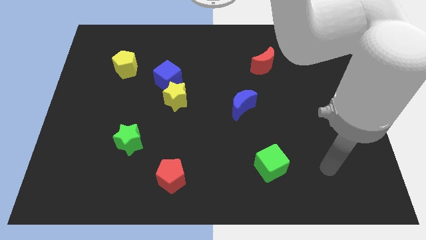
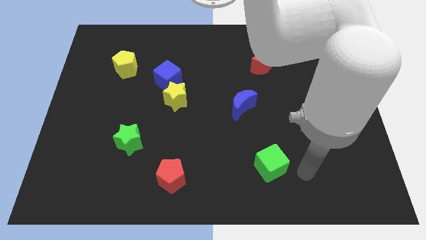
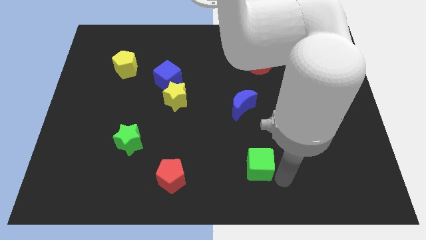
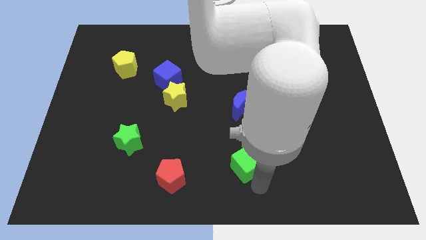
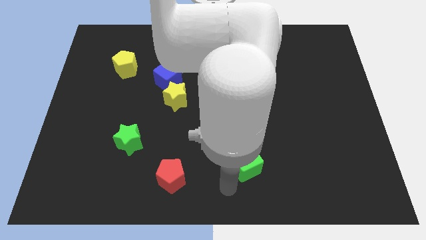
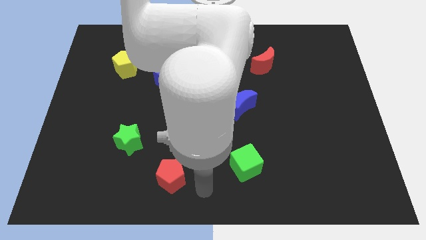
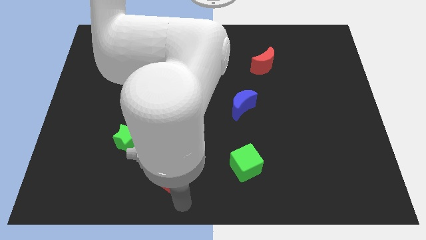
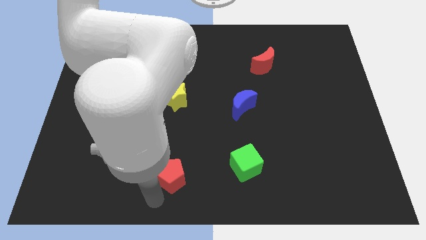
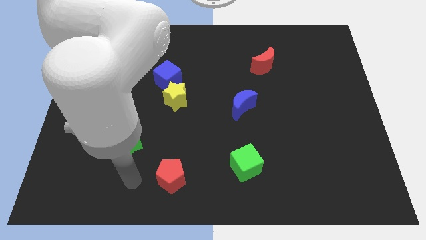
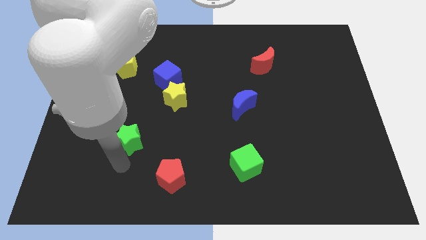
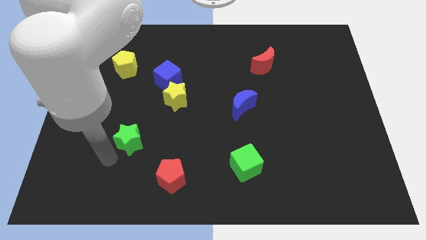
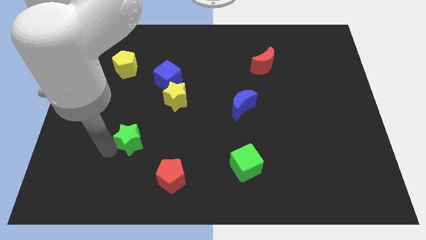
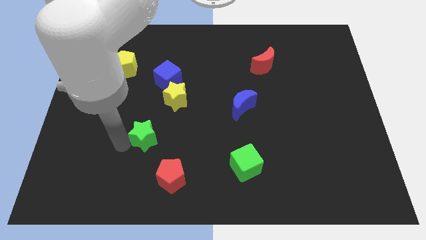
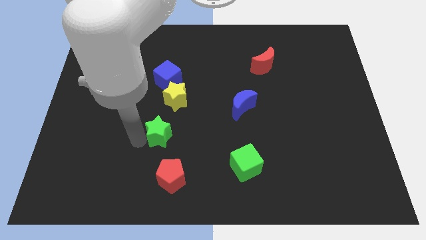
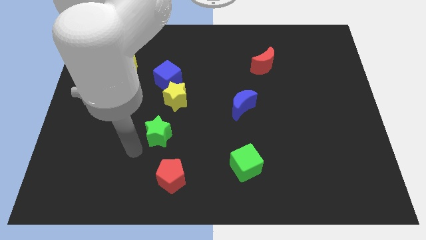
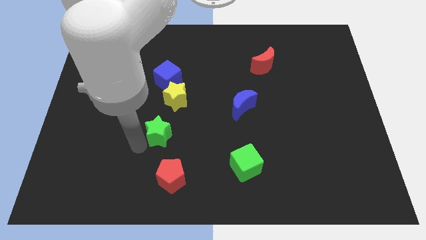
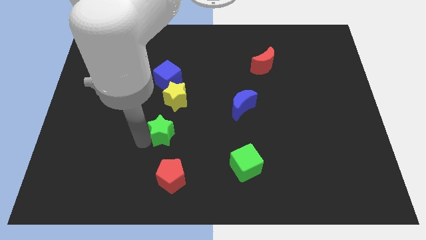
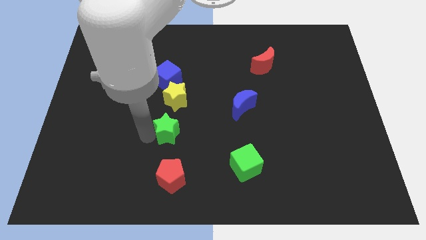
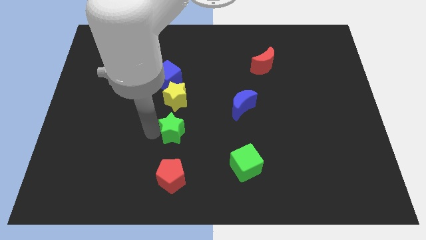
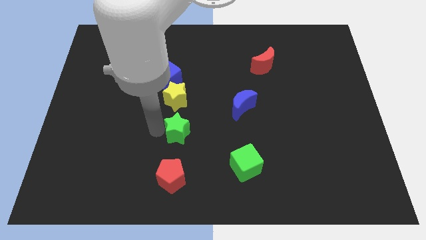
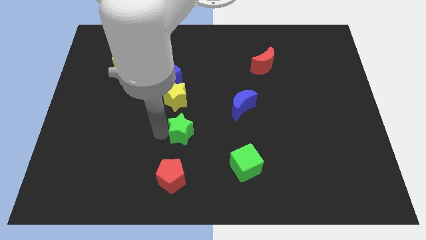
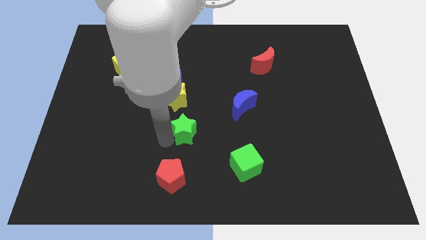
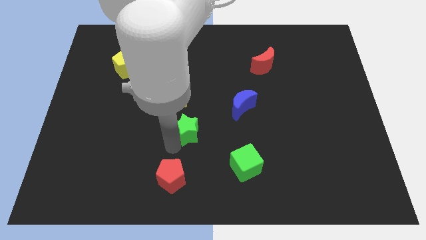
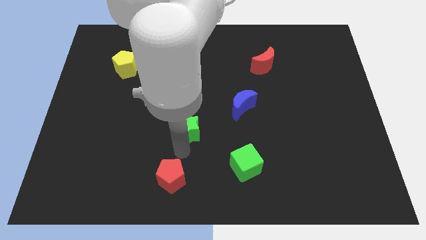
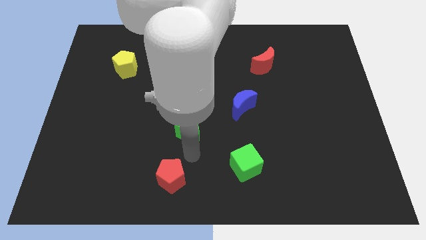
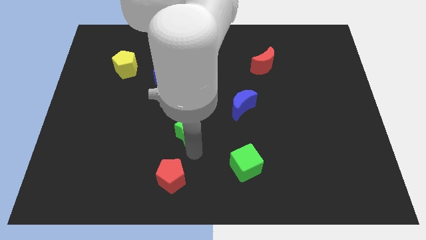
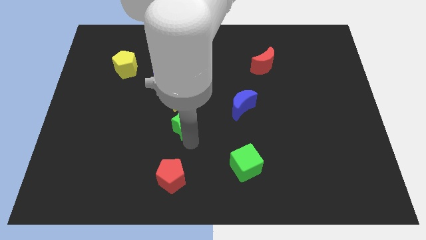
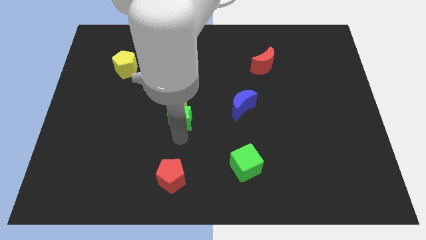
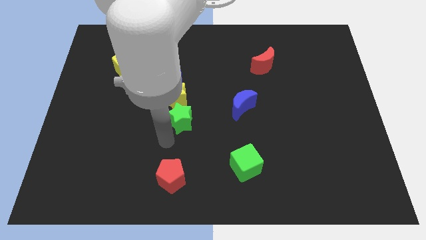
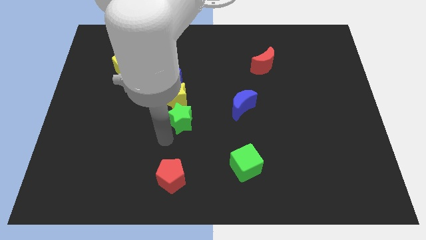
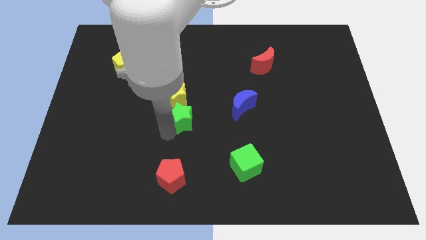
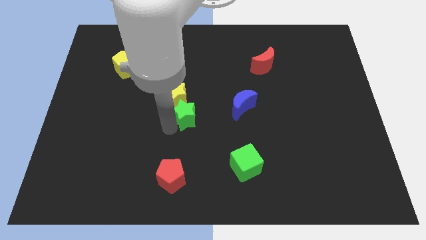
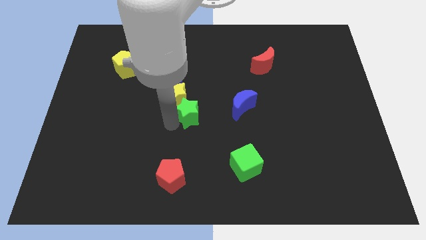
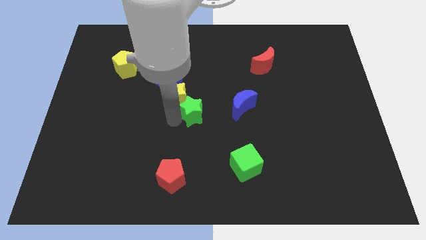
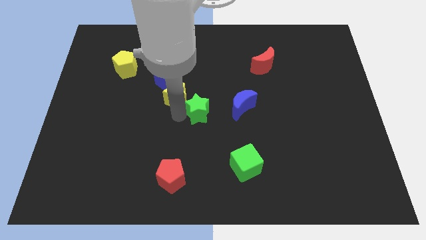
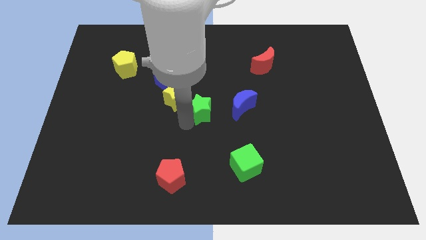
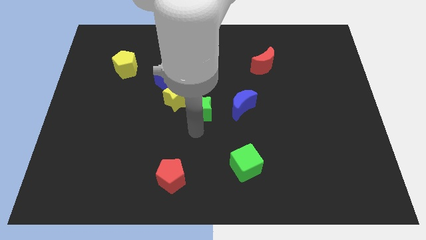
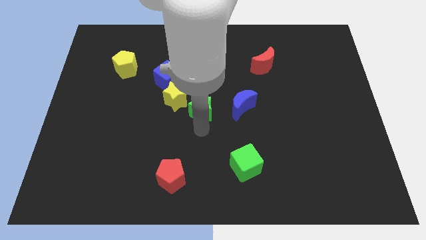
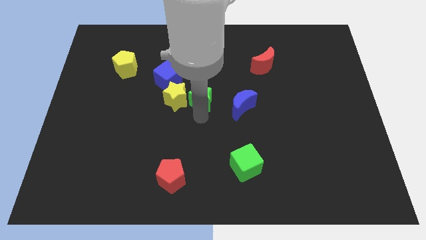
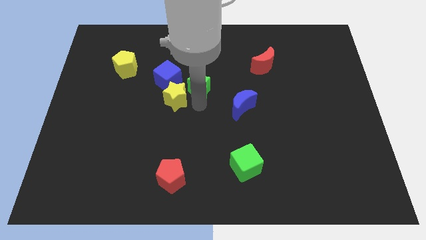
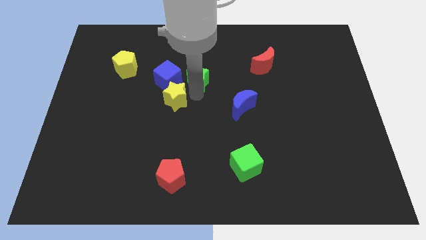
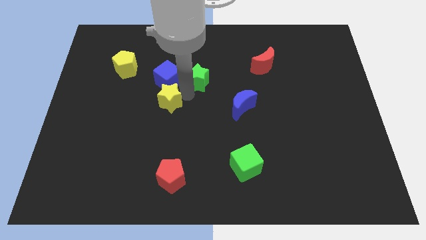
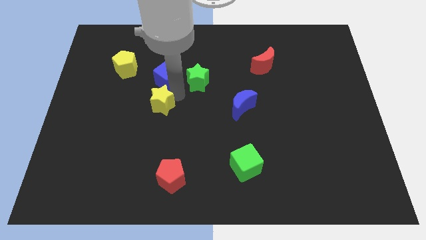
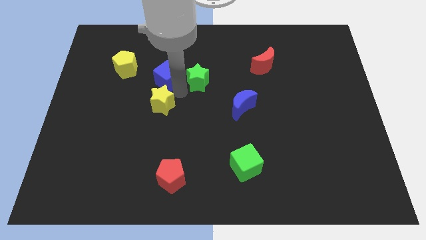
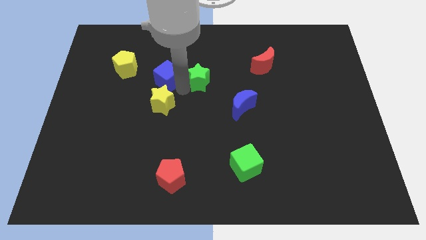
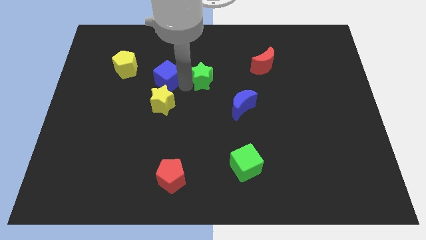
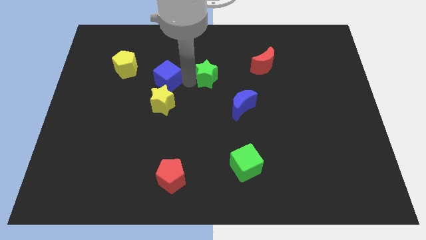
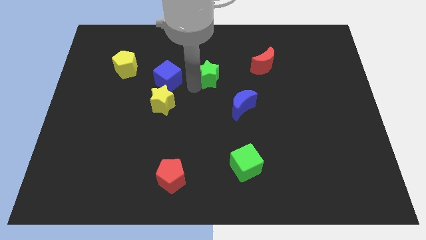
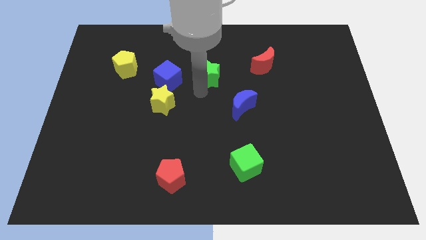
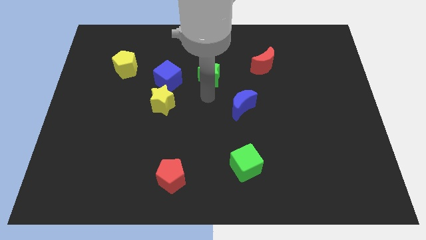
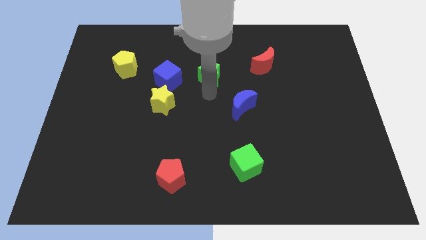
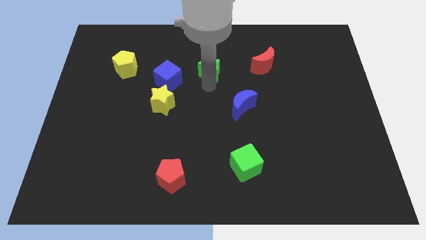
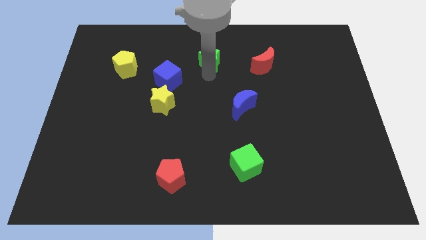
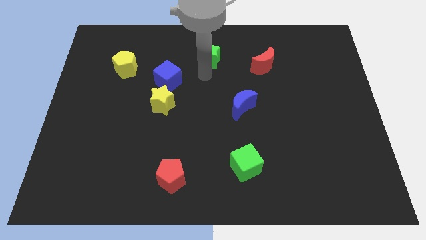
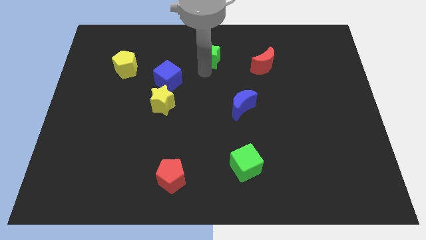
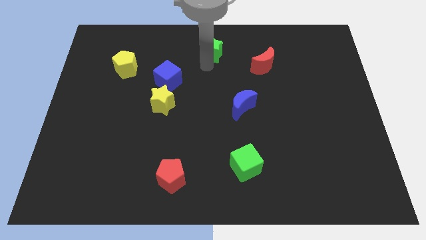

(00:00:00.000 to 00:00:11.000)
push the green star to the top

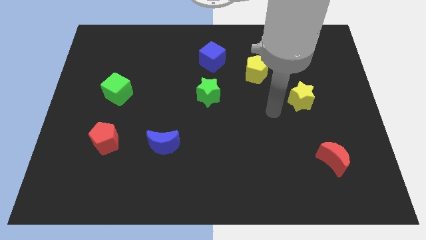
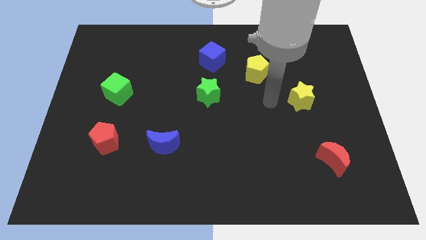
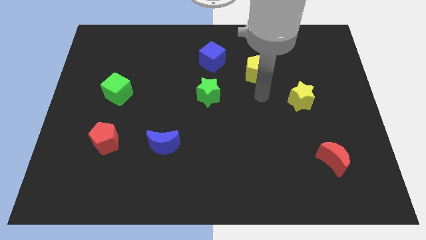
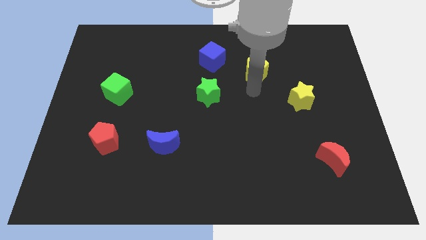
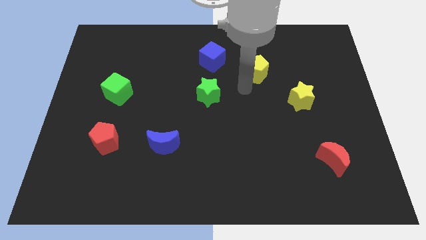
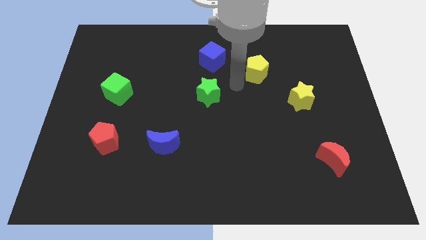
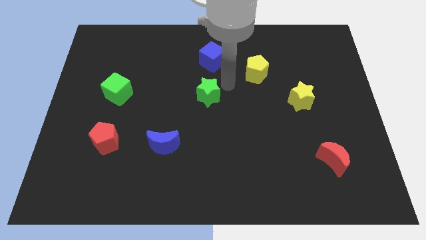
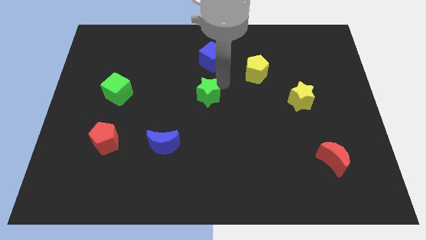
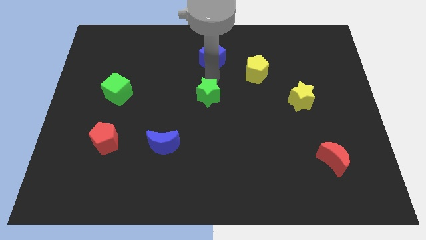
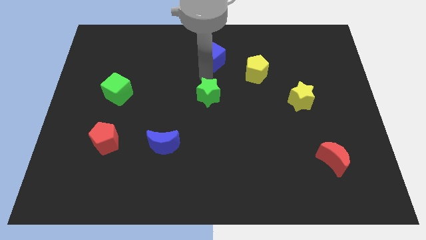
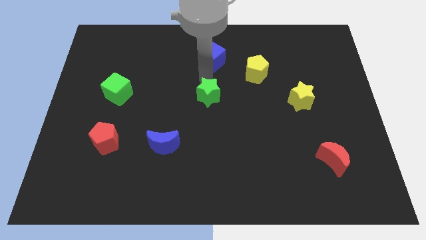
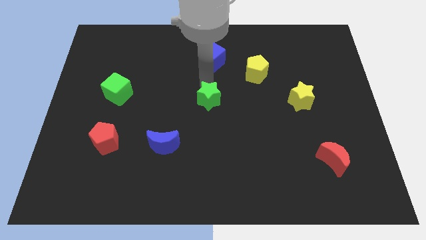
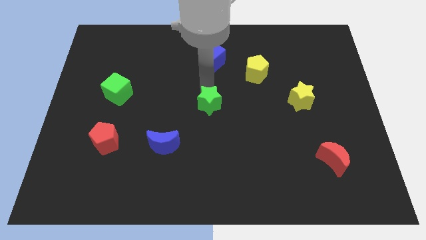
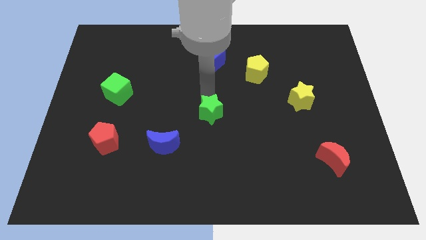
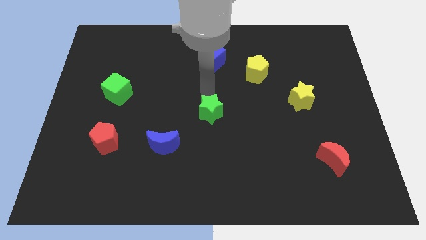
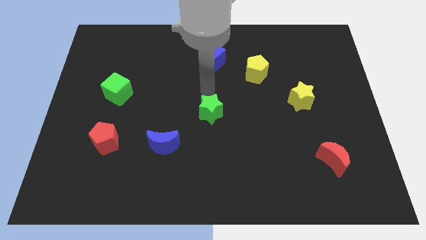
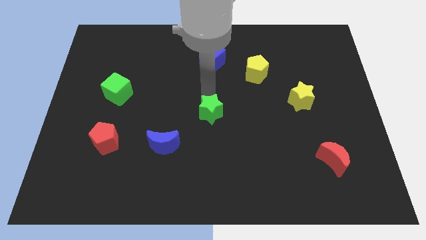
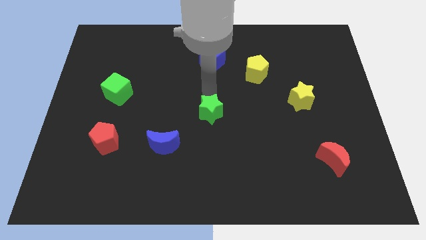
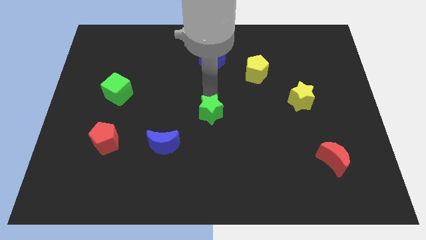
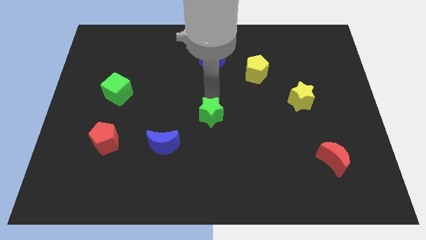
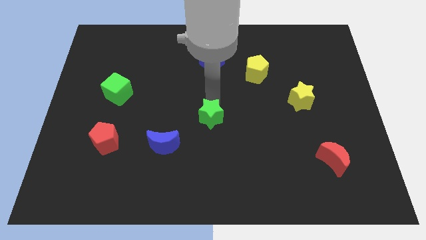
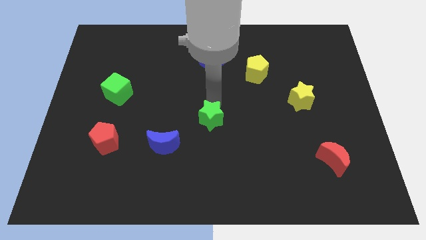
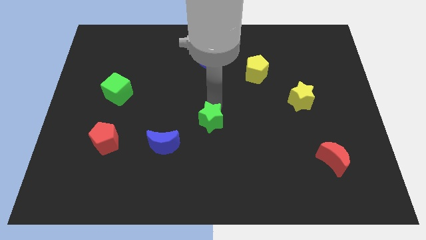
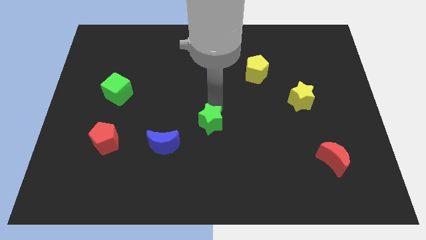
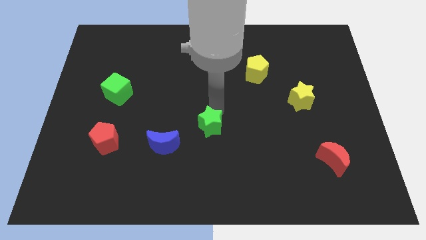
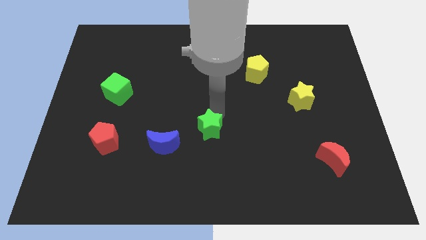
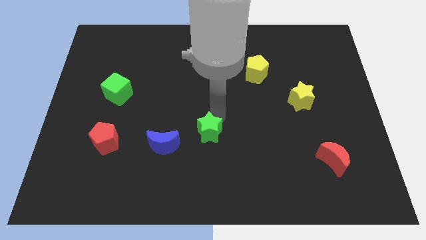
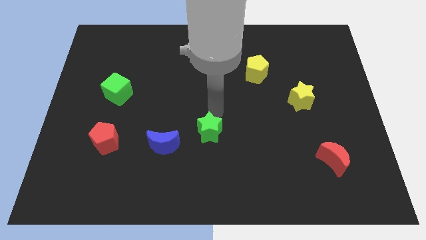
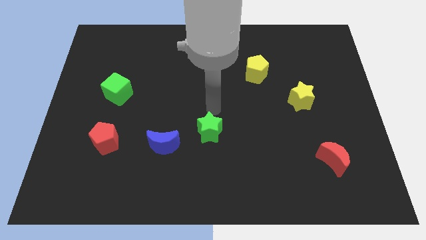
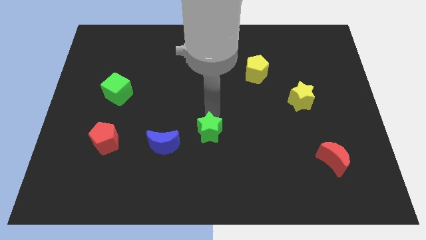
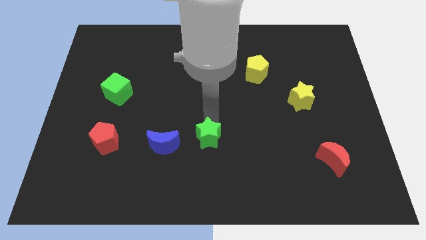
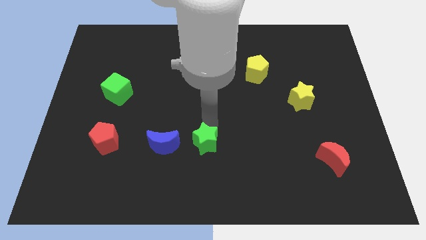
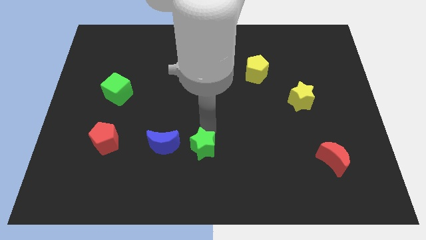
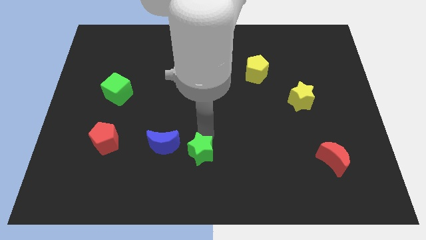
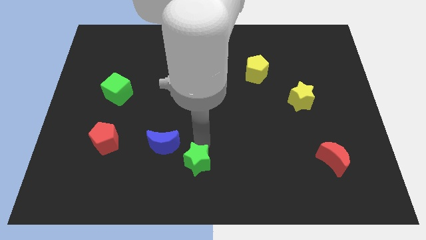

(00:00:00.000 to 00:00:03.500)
put the green star to the bottom side
